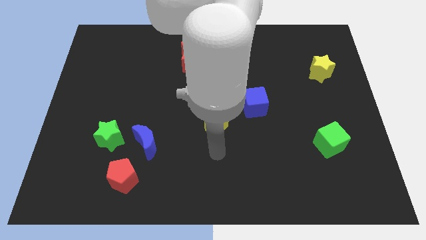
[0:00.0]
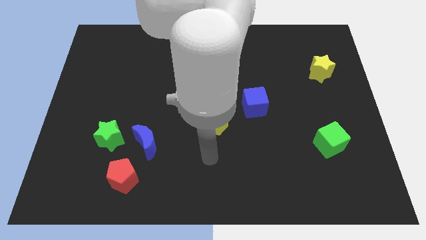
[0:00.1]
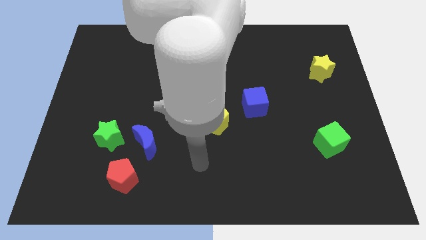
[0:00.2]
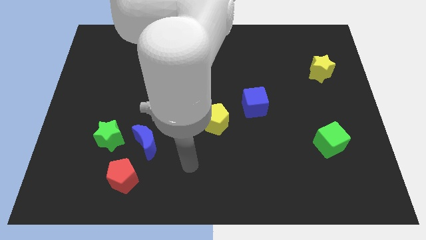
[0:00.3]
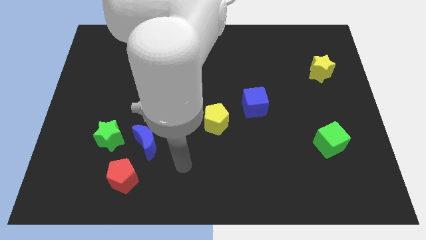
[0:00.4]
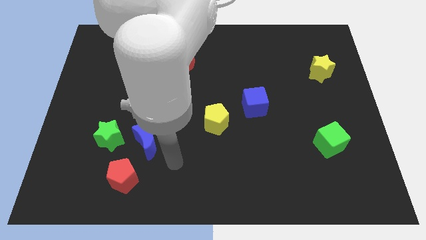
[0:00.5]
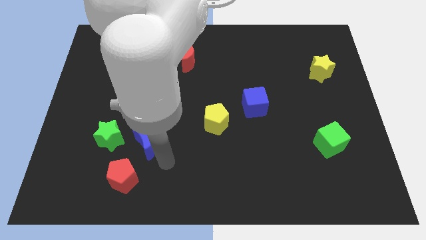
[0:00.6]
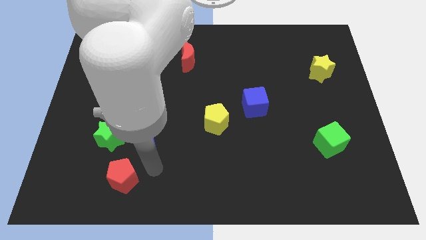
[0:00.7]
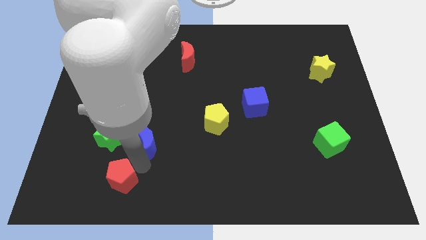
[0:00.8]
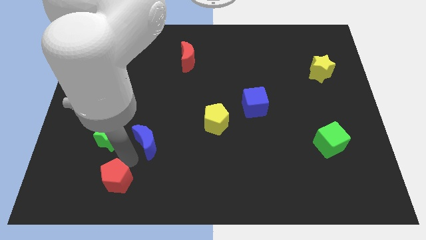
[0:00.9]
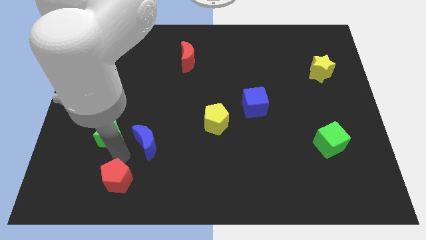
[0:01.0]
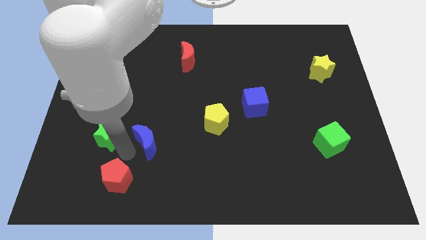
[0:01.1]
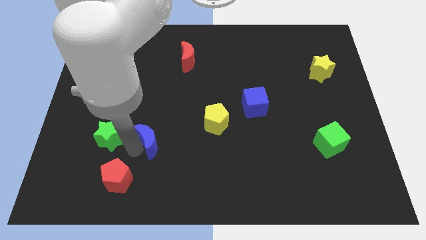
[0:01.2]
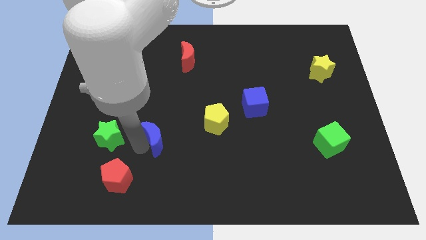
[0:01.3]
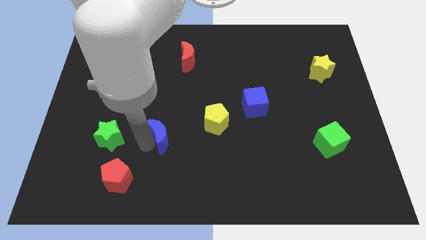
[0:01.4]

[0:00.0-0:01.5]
pull the blue moon apart from the green star and red pentagon

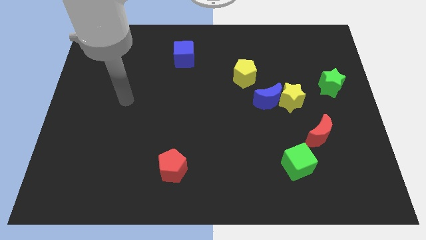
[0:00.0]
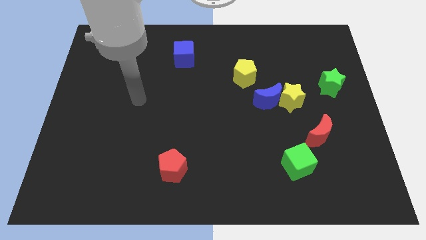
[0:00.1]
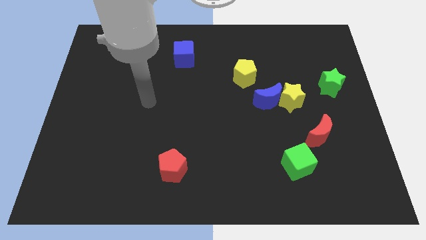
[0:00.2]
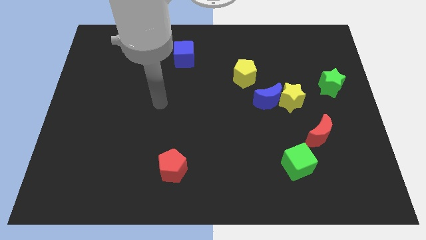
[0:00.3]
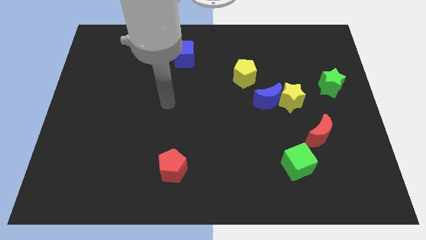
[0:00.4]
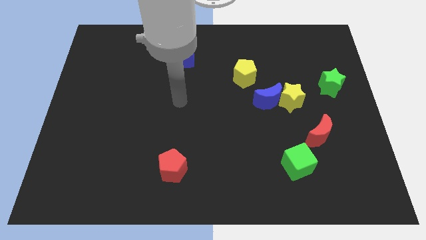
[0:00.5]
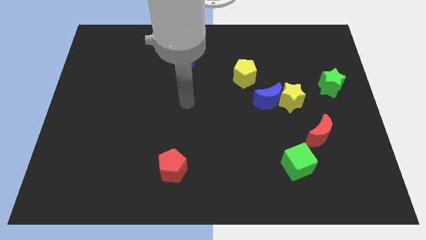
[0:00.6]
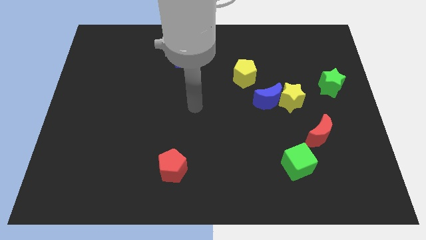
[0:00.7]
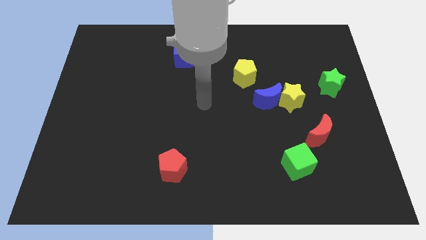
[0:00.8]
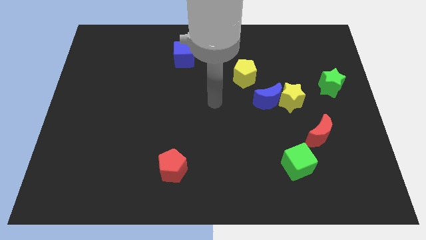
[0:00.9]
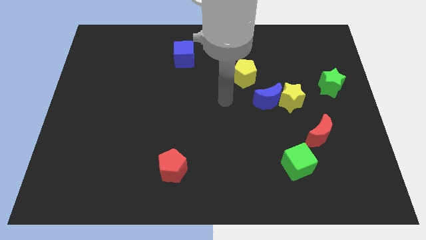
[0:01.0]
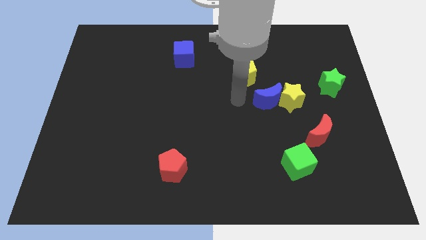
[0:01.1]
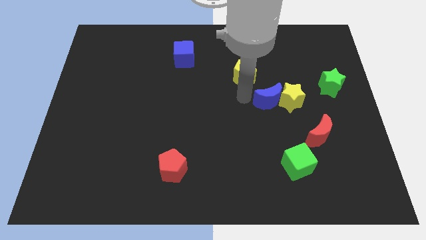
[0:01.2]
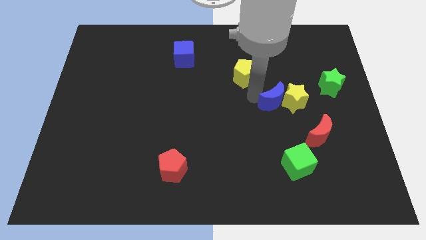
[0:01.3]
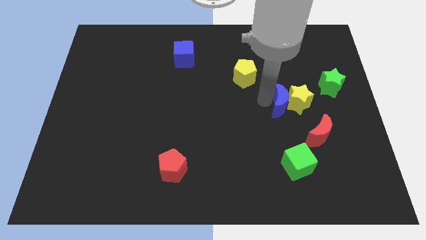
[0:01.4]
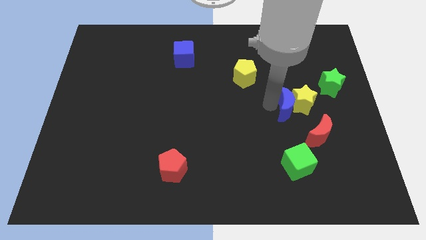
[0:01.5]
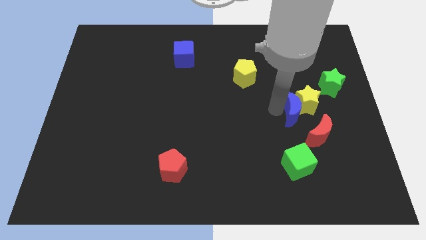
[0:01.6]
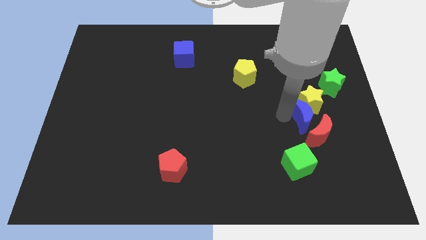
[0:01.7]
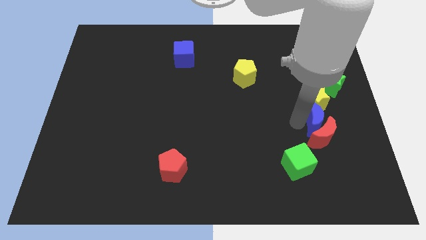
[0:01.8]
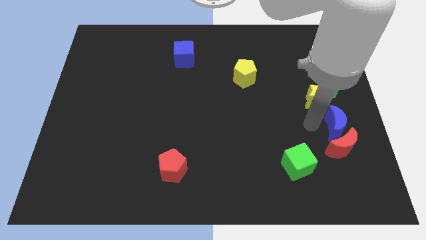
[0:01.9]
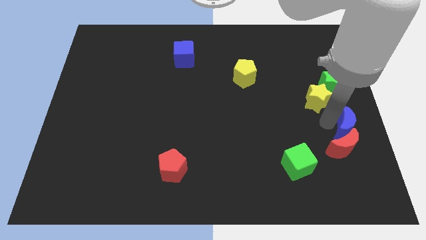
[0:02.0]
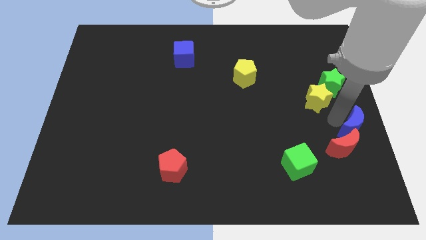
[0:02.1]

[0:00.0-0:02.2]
move the yellow star away from the blue moon

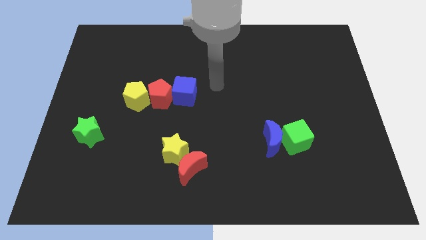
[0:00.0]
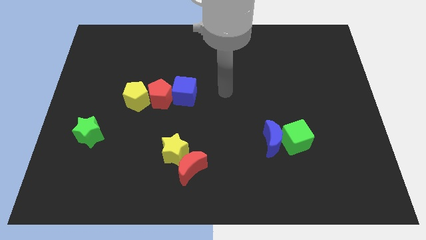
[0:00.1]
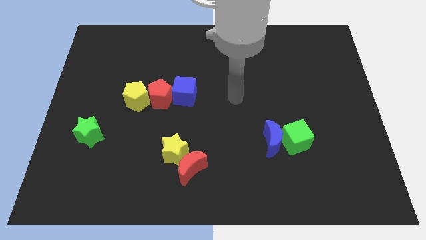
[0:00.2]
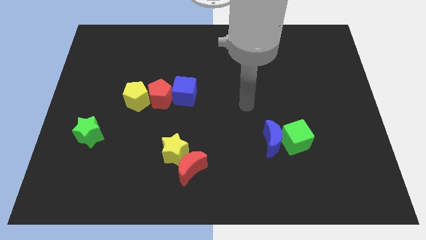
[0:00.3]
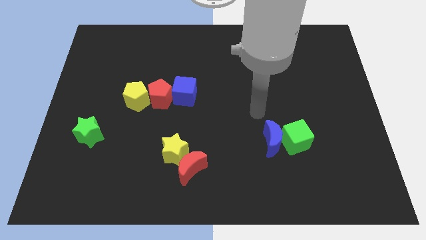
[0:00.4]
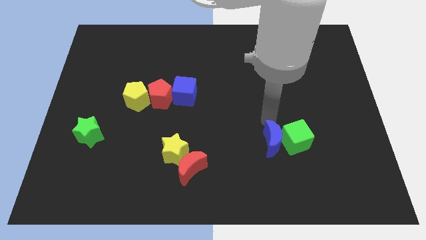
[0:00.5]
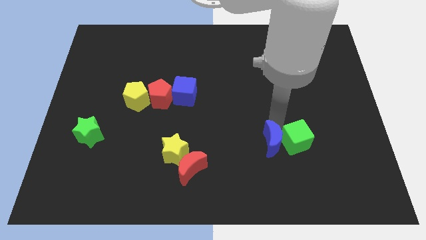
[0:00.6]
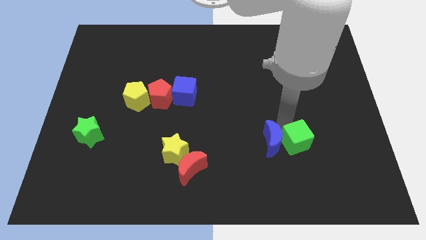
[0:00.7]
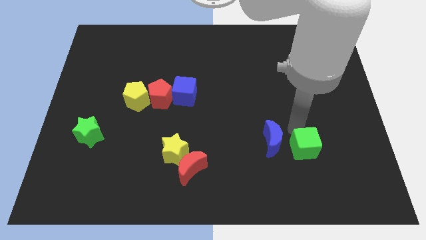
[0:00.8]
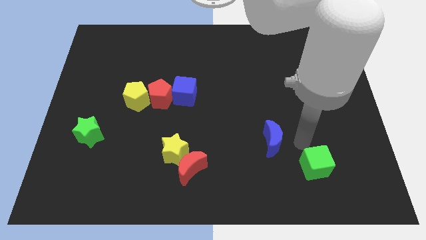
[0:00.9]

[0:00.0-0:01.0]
move the blue moon away from the green cube

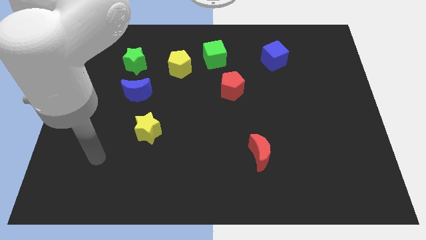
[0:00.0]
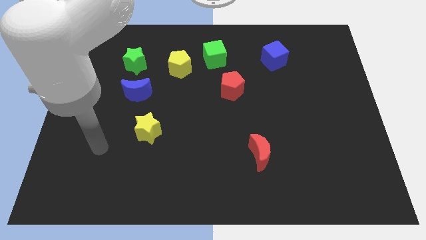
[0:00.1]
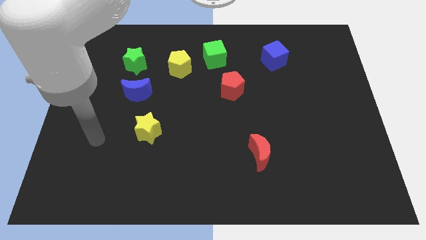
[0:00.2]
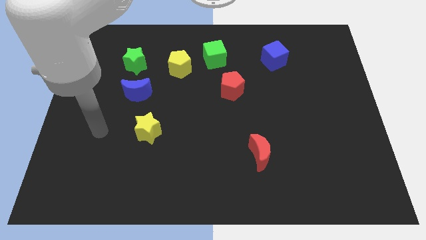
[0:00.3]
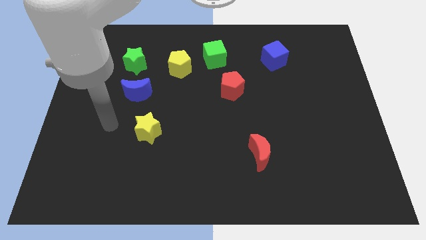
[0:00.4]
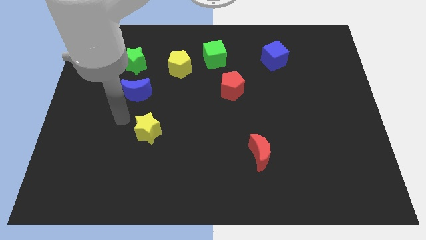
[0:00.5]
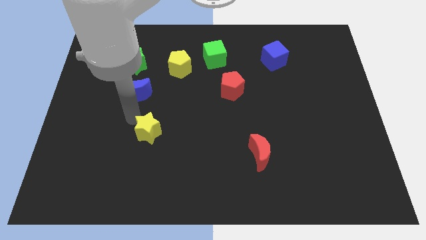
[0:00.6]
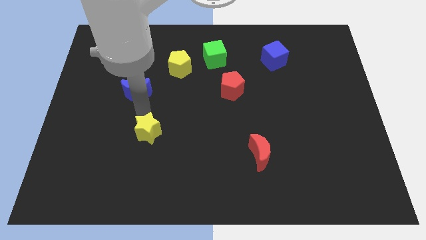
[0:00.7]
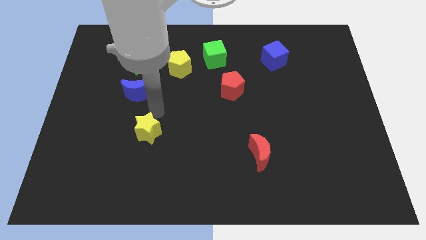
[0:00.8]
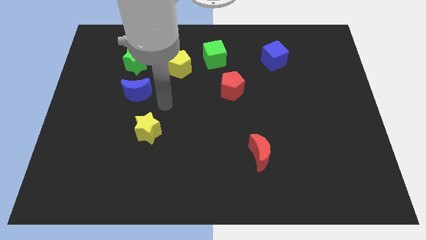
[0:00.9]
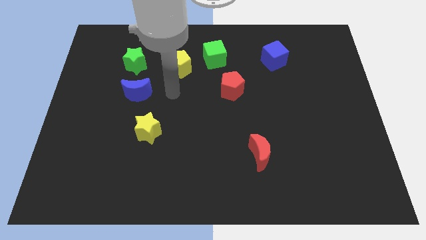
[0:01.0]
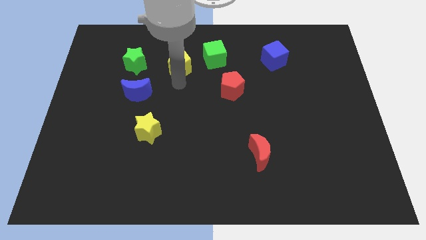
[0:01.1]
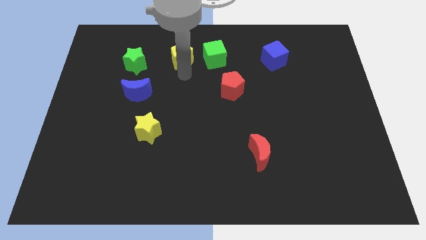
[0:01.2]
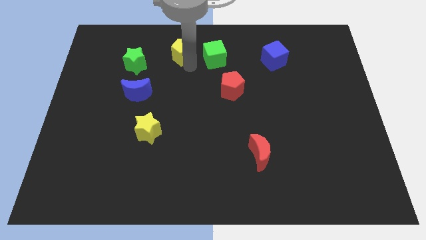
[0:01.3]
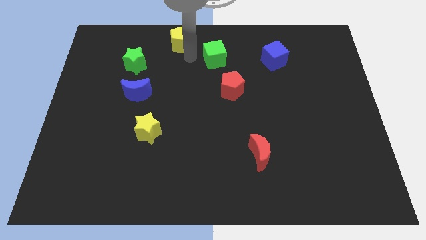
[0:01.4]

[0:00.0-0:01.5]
pull the green cube apart from the yellow pentagon

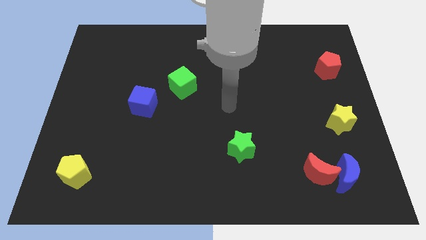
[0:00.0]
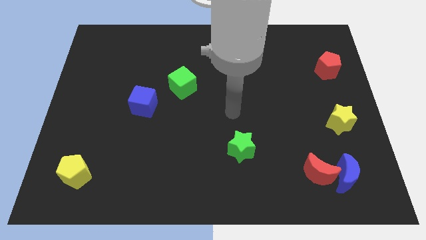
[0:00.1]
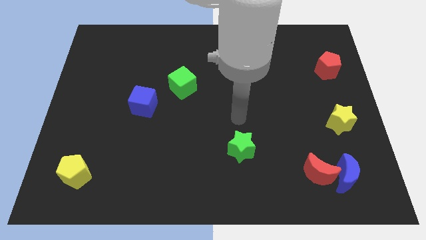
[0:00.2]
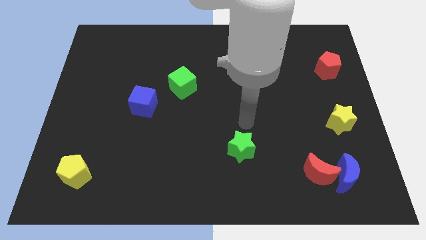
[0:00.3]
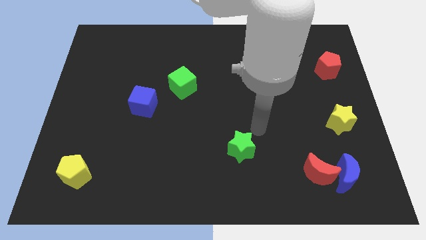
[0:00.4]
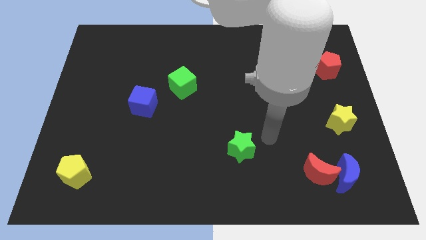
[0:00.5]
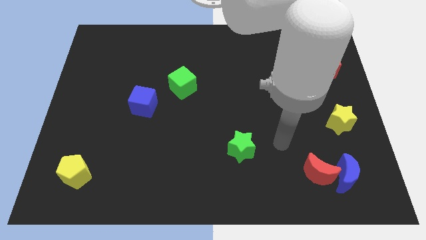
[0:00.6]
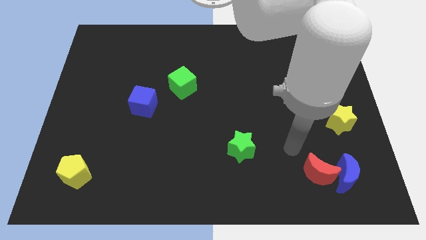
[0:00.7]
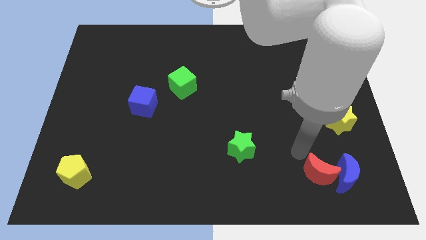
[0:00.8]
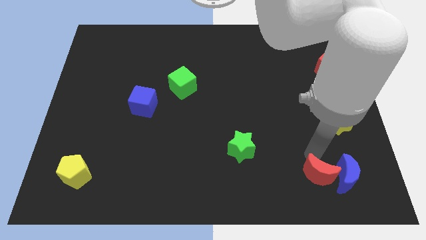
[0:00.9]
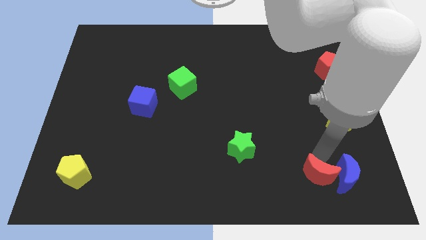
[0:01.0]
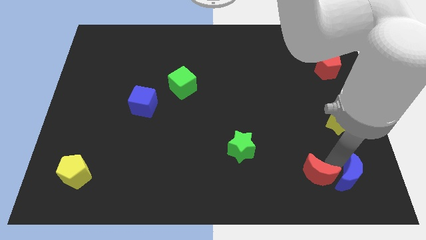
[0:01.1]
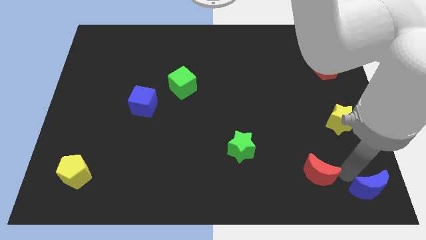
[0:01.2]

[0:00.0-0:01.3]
pull the red moon apart from the blue moon

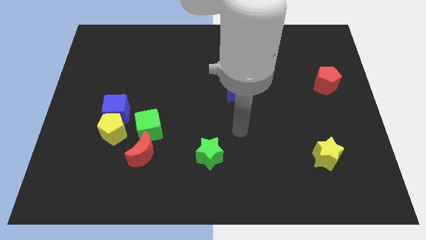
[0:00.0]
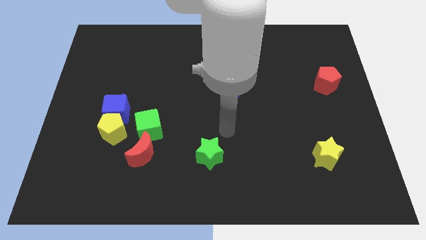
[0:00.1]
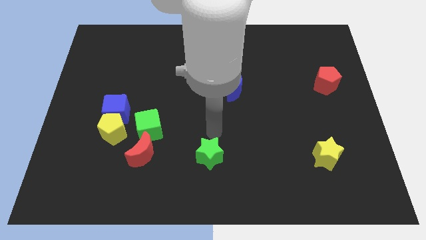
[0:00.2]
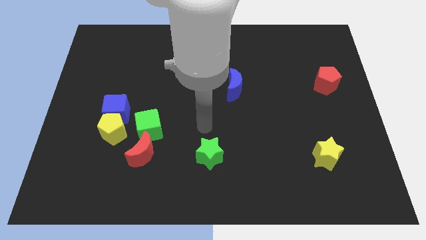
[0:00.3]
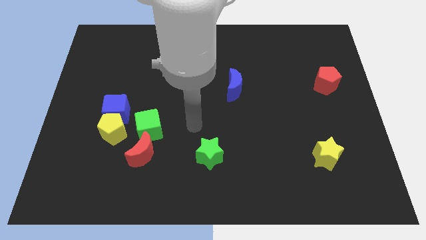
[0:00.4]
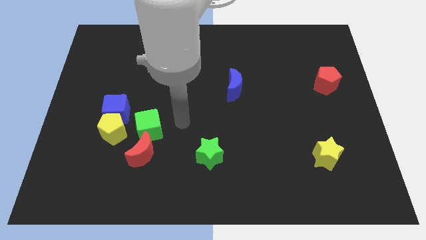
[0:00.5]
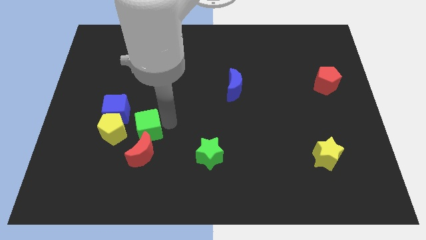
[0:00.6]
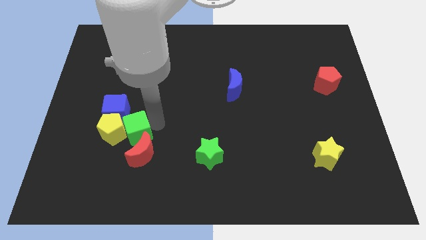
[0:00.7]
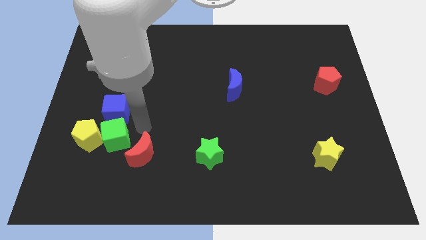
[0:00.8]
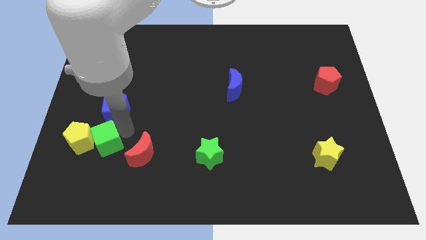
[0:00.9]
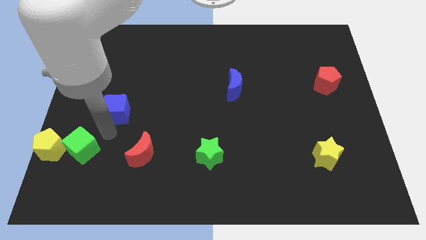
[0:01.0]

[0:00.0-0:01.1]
pull the blue cube apart from the yellow pentagon and green cube

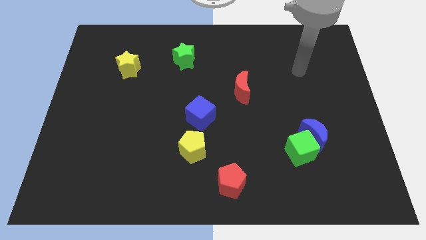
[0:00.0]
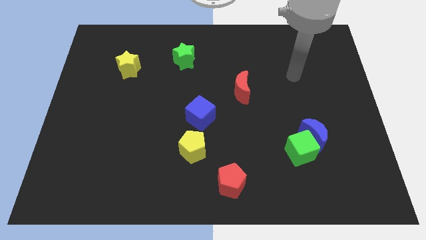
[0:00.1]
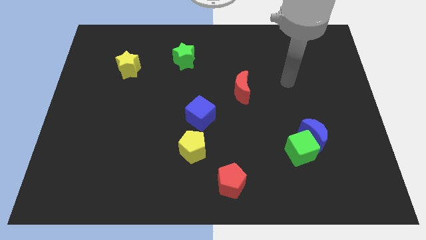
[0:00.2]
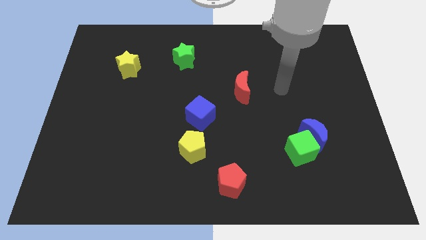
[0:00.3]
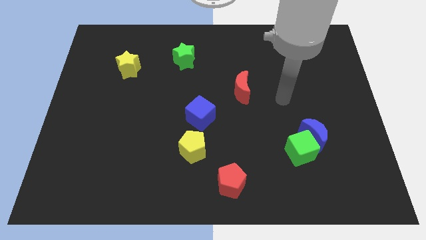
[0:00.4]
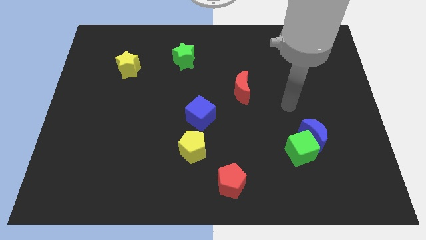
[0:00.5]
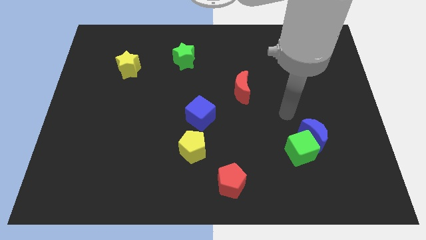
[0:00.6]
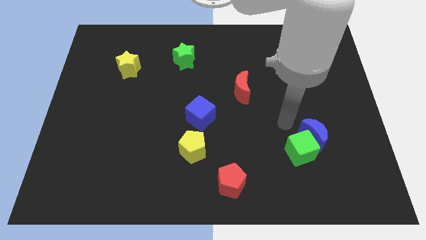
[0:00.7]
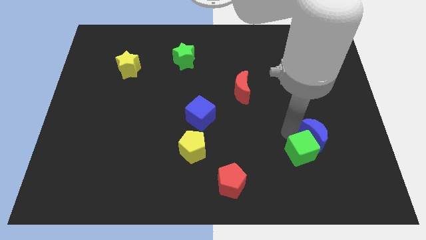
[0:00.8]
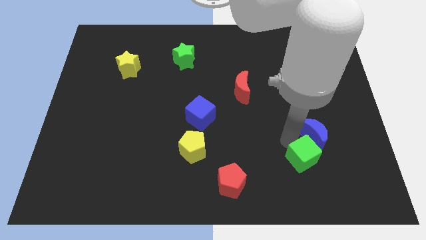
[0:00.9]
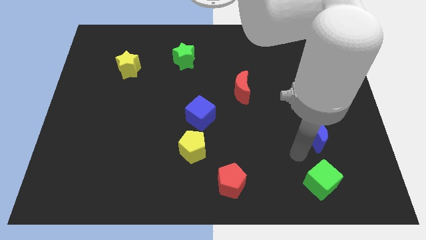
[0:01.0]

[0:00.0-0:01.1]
separate the blue moon from the green cube
